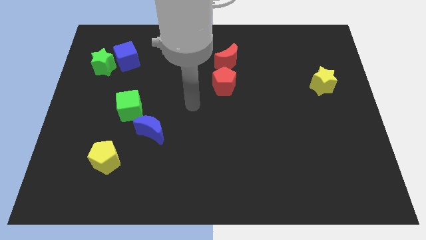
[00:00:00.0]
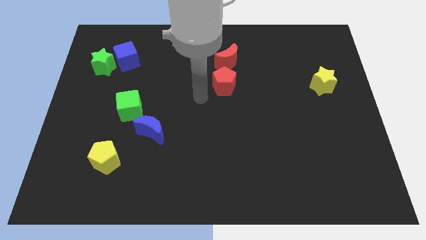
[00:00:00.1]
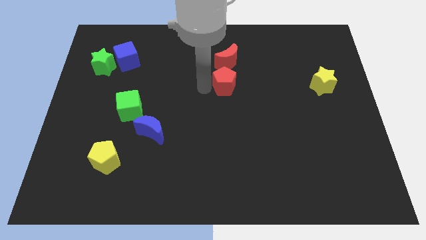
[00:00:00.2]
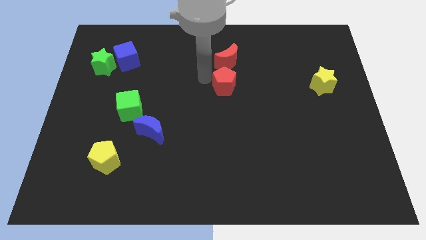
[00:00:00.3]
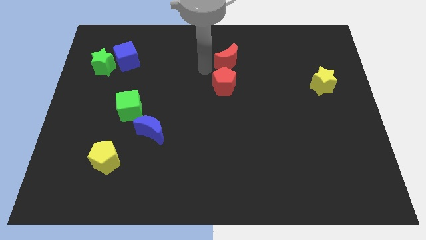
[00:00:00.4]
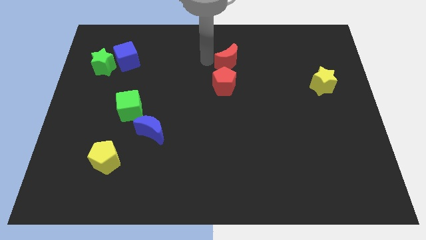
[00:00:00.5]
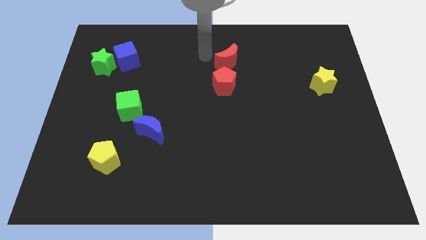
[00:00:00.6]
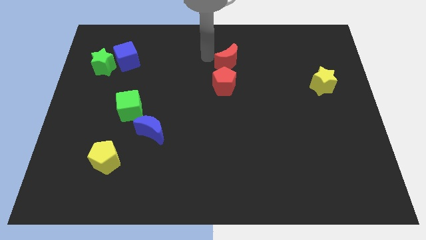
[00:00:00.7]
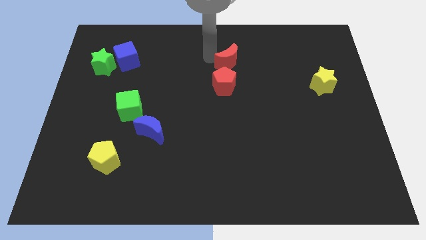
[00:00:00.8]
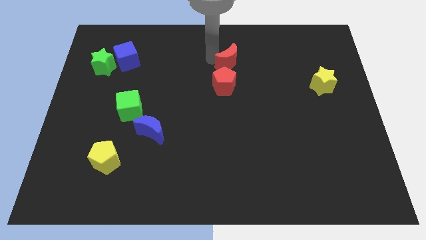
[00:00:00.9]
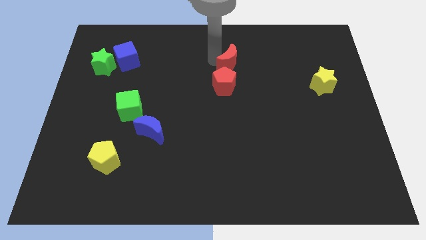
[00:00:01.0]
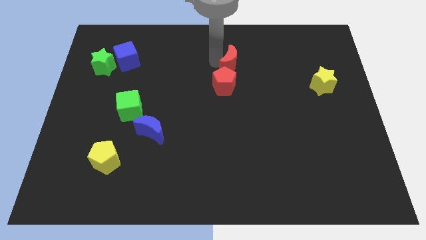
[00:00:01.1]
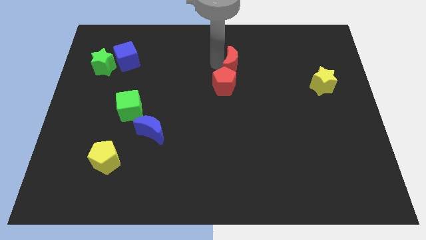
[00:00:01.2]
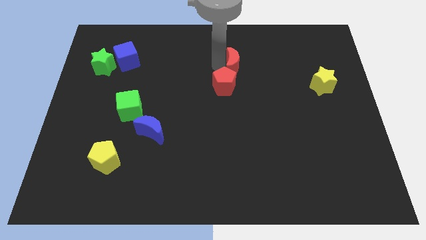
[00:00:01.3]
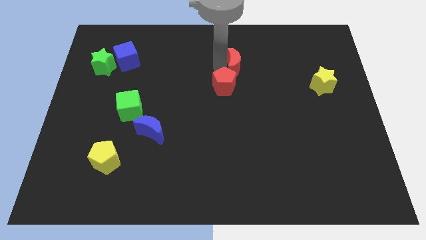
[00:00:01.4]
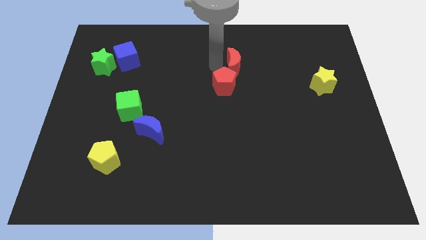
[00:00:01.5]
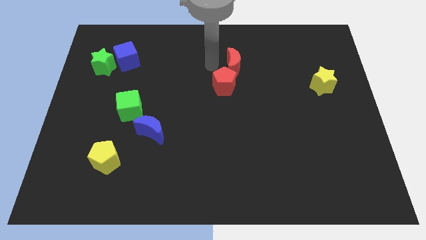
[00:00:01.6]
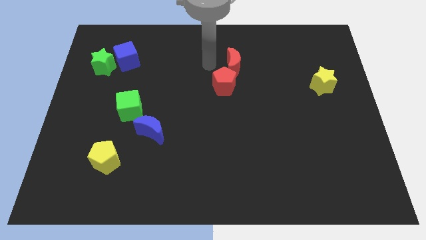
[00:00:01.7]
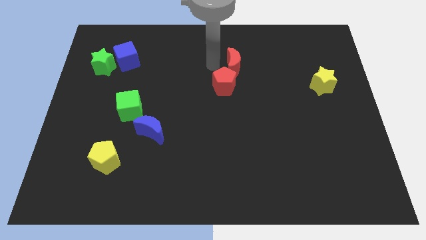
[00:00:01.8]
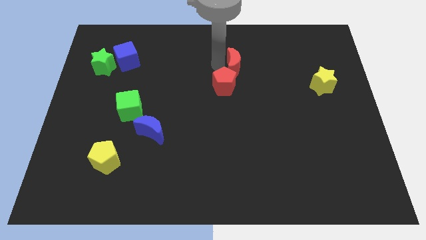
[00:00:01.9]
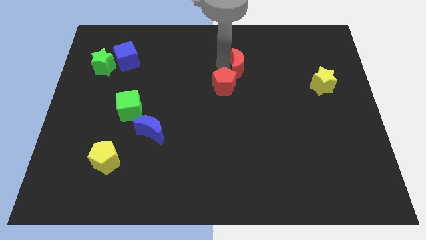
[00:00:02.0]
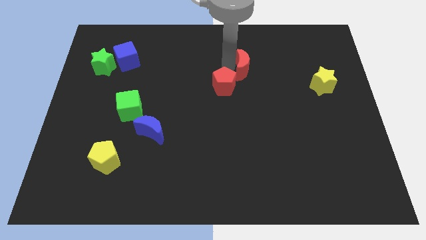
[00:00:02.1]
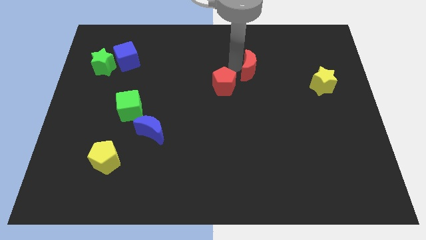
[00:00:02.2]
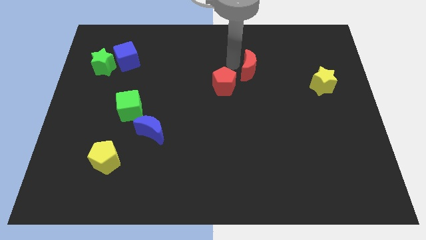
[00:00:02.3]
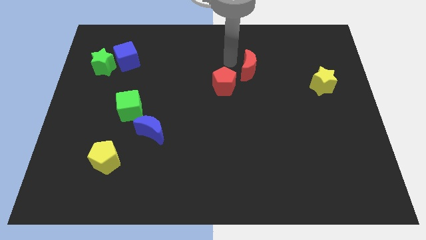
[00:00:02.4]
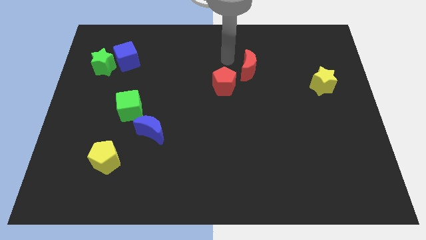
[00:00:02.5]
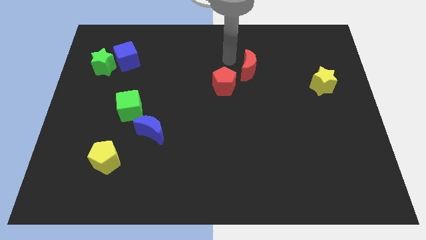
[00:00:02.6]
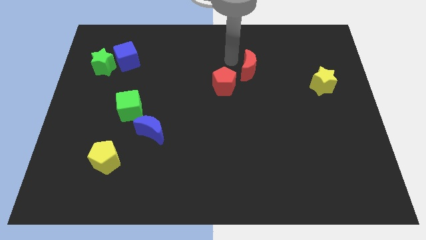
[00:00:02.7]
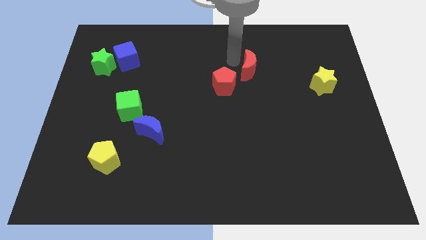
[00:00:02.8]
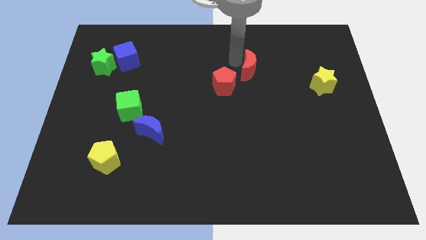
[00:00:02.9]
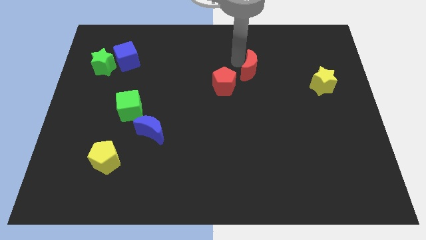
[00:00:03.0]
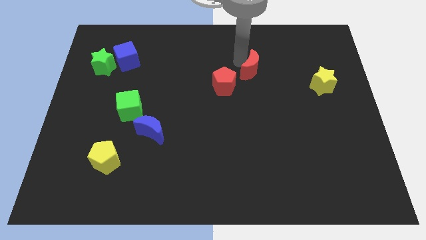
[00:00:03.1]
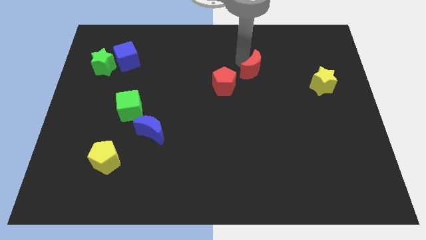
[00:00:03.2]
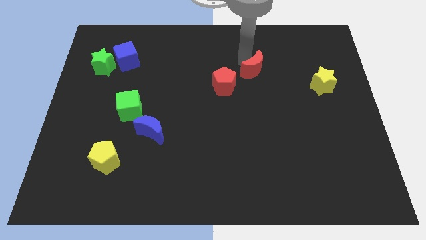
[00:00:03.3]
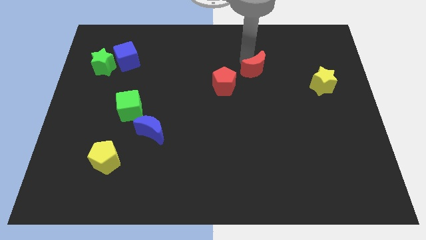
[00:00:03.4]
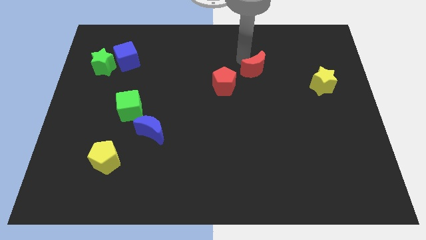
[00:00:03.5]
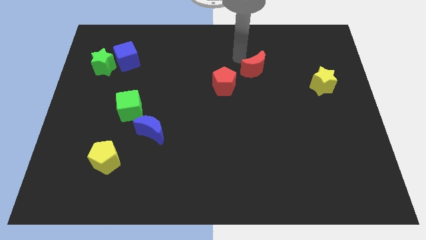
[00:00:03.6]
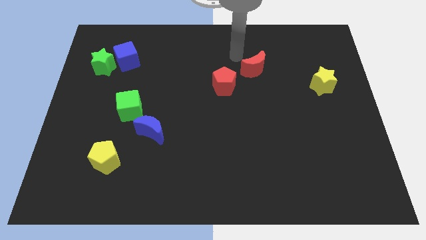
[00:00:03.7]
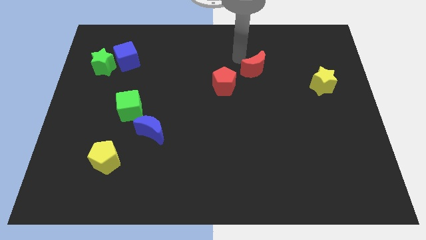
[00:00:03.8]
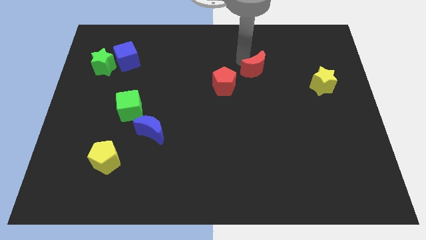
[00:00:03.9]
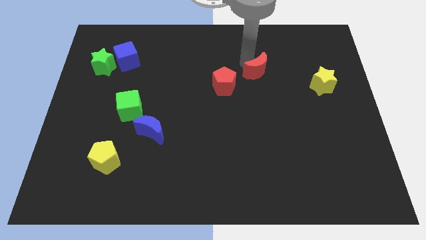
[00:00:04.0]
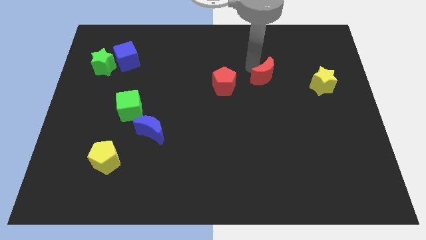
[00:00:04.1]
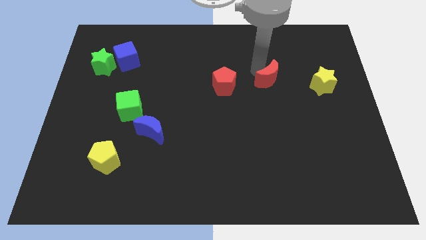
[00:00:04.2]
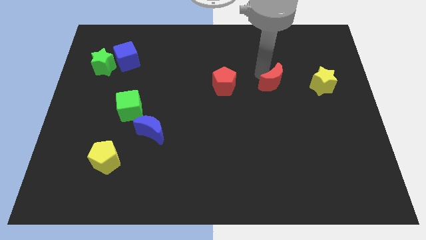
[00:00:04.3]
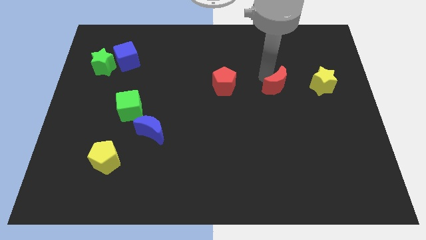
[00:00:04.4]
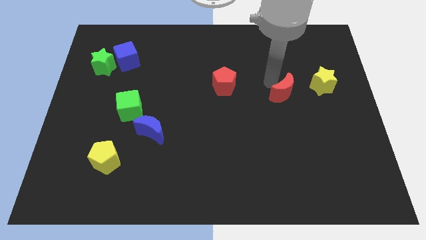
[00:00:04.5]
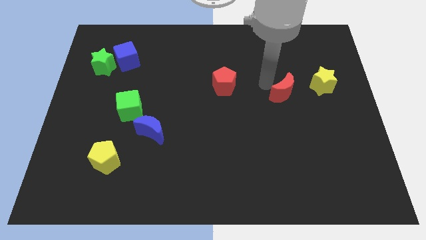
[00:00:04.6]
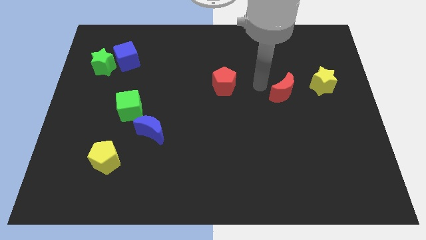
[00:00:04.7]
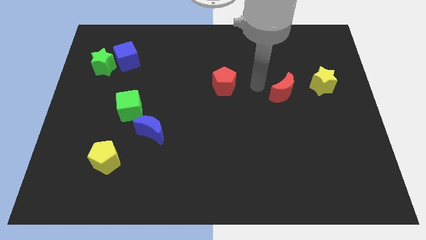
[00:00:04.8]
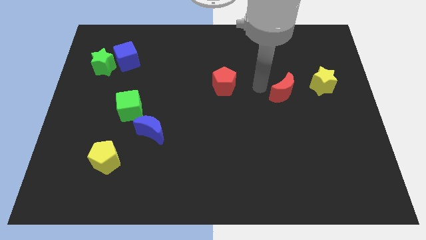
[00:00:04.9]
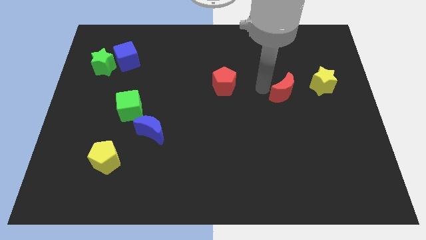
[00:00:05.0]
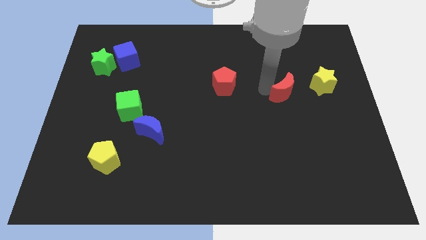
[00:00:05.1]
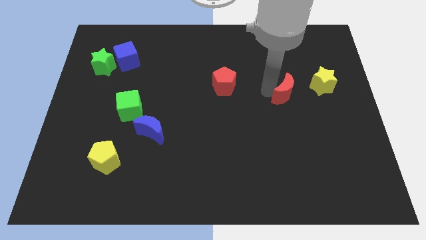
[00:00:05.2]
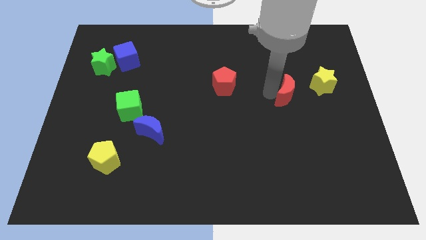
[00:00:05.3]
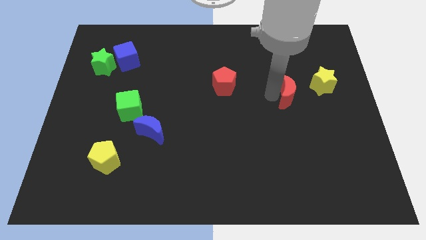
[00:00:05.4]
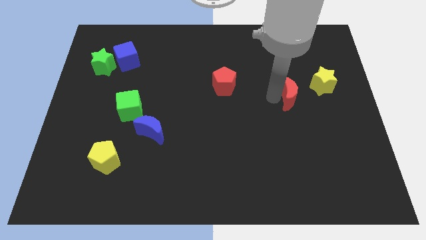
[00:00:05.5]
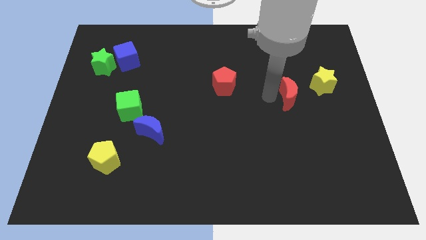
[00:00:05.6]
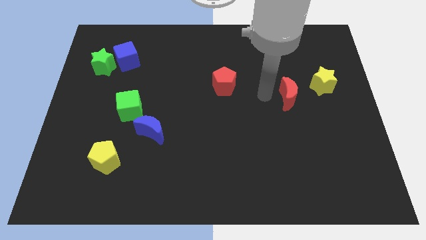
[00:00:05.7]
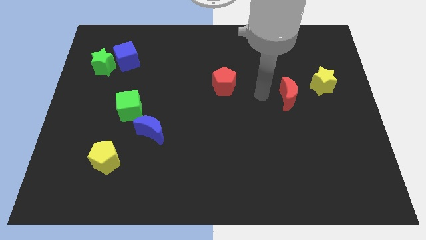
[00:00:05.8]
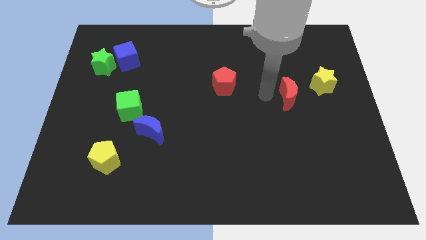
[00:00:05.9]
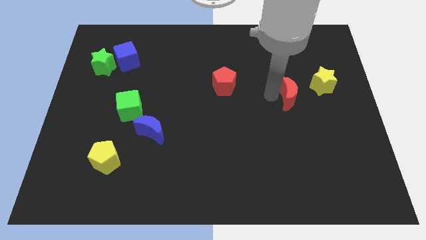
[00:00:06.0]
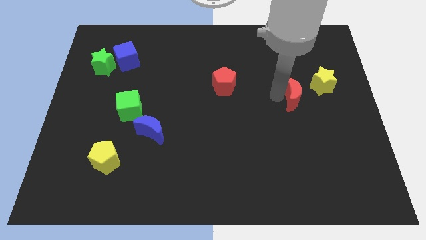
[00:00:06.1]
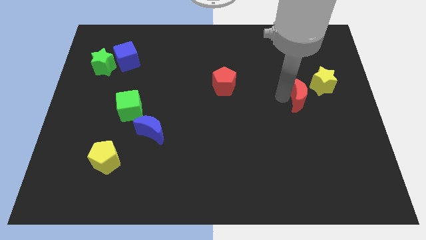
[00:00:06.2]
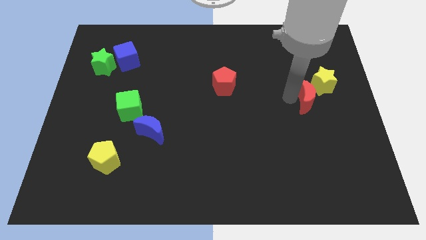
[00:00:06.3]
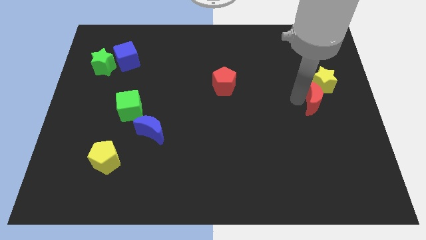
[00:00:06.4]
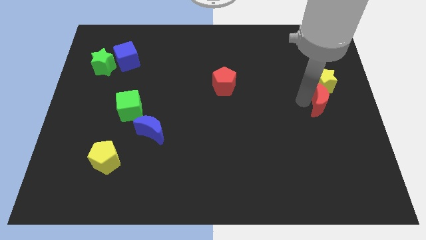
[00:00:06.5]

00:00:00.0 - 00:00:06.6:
slide the red moon to the right side of the board
